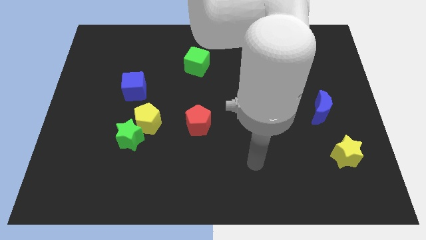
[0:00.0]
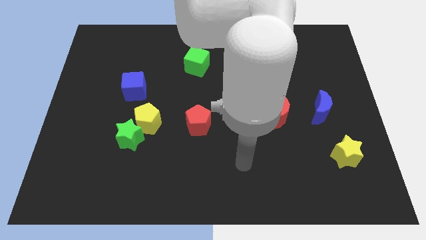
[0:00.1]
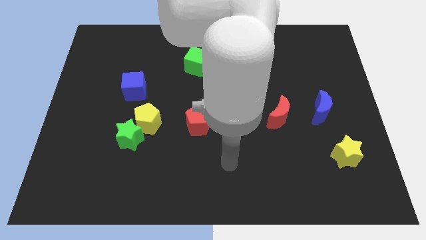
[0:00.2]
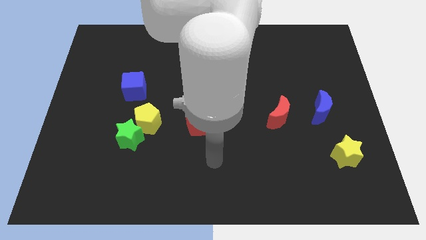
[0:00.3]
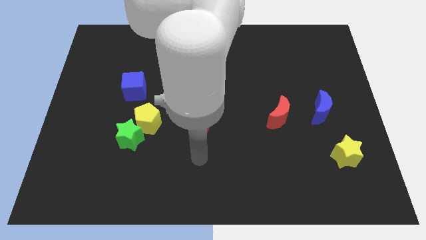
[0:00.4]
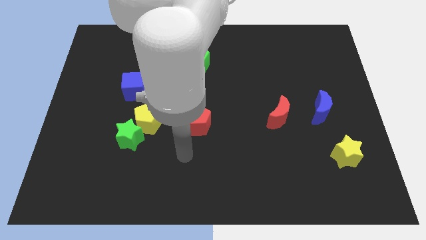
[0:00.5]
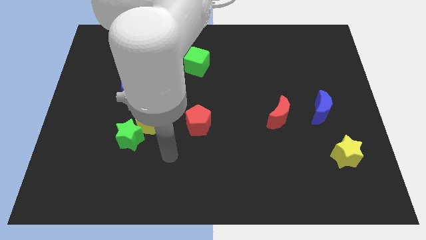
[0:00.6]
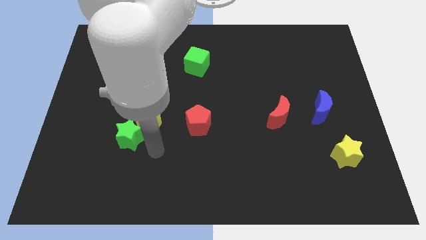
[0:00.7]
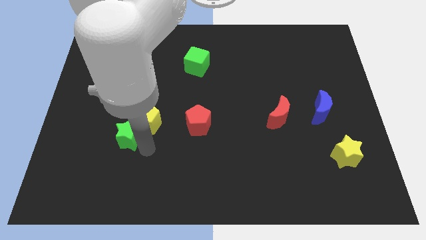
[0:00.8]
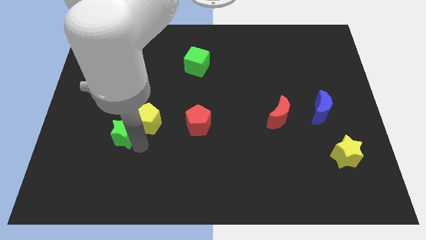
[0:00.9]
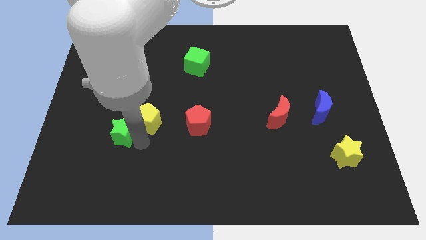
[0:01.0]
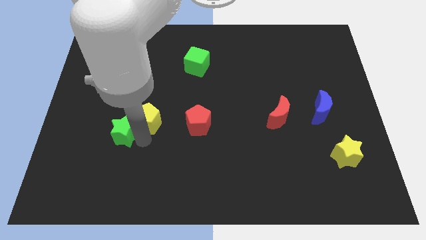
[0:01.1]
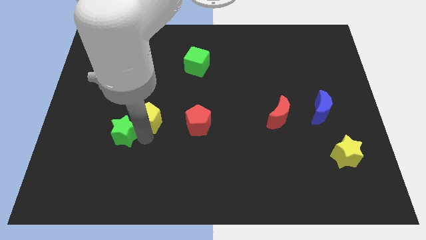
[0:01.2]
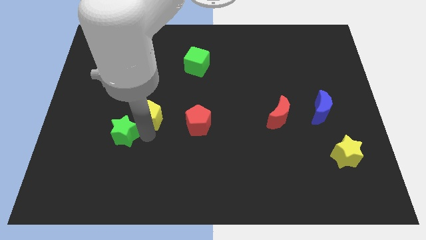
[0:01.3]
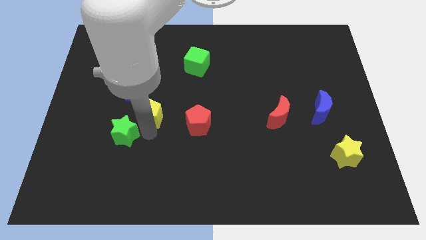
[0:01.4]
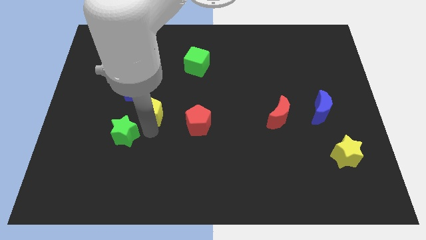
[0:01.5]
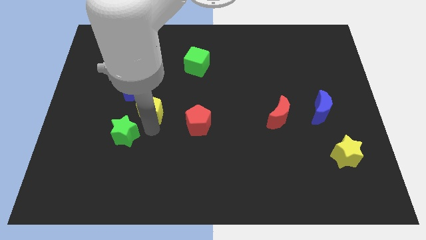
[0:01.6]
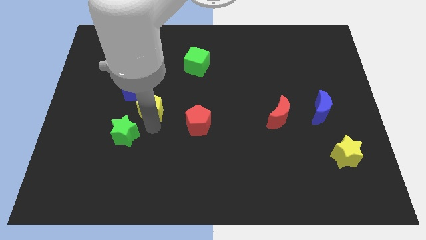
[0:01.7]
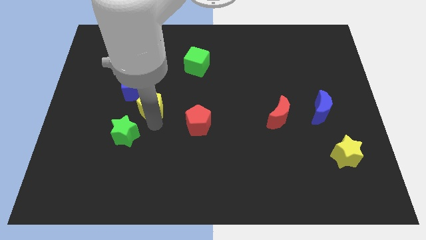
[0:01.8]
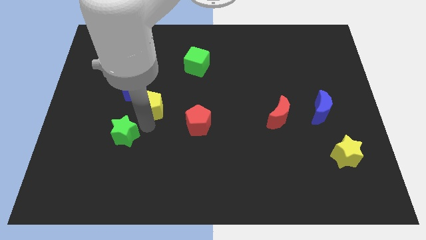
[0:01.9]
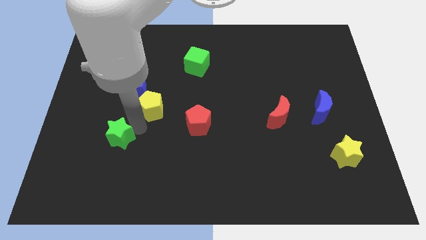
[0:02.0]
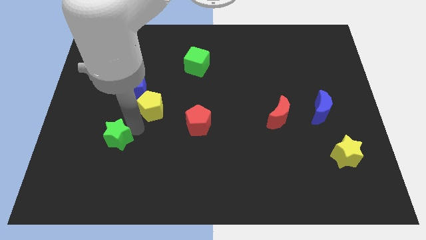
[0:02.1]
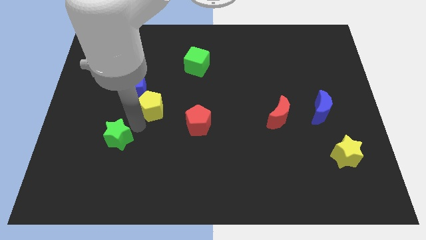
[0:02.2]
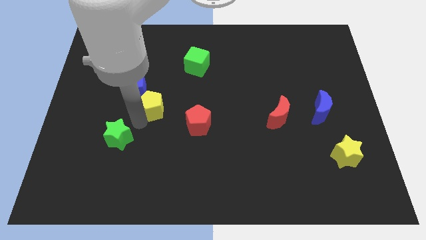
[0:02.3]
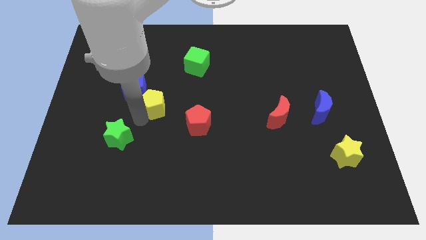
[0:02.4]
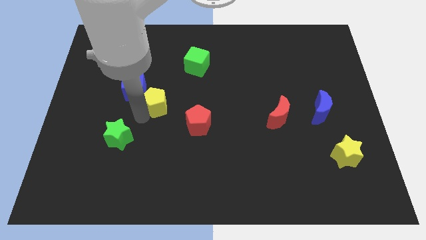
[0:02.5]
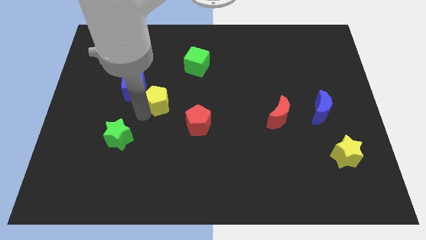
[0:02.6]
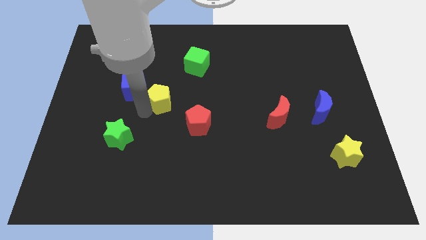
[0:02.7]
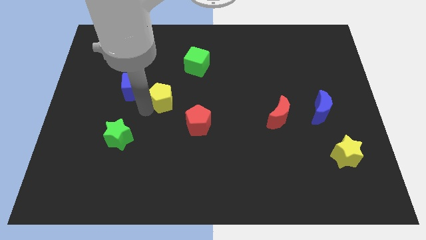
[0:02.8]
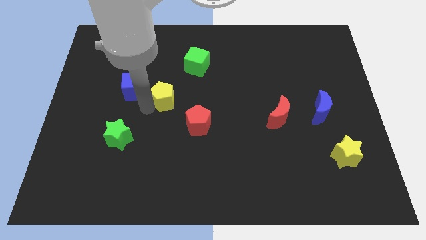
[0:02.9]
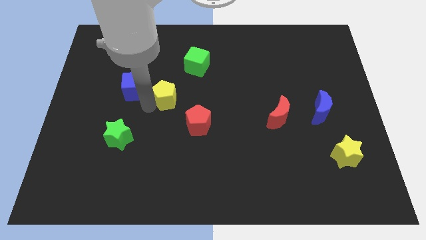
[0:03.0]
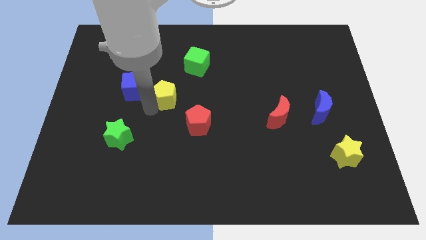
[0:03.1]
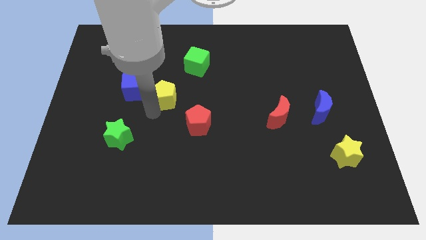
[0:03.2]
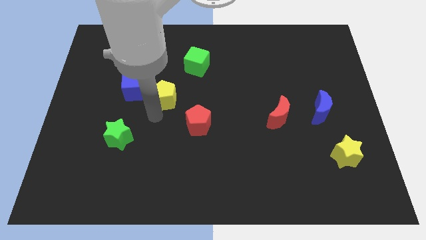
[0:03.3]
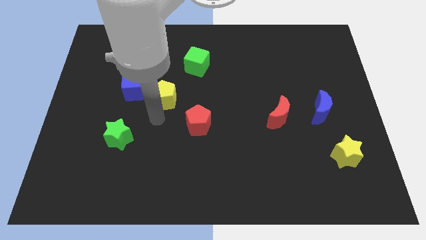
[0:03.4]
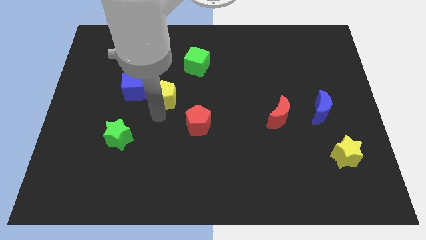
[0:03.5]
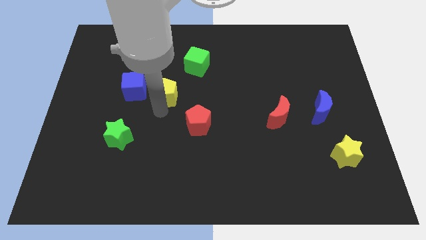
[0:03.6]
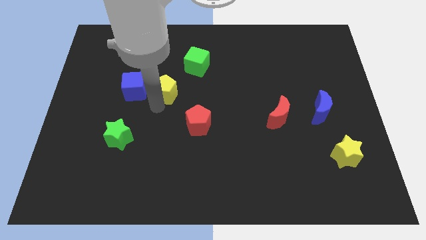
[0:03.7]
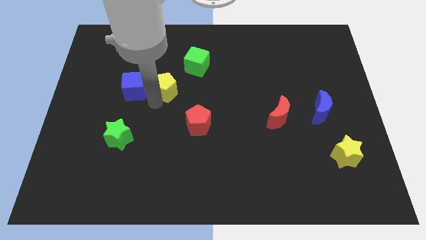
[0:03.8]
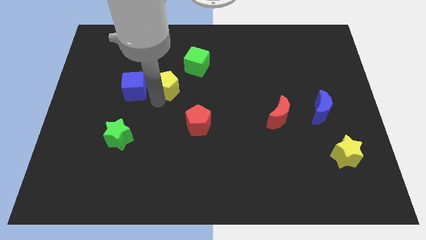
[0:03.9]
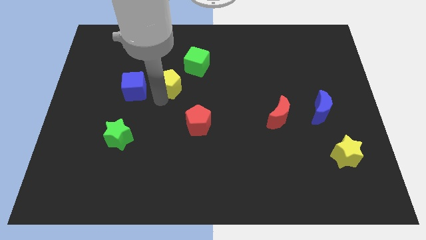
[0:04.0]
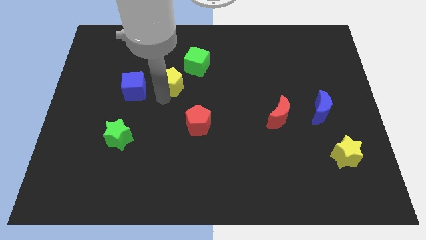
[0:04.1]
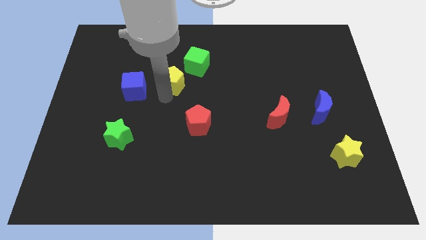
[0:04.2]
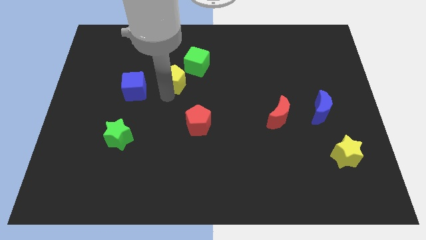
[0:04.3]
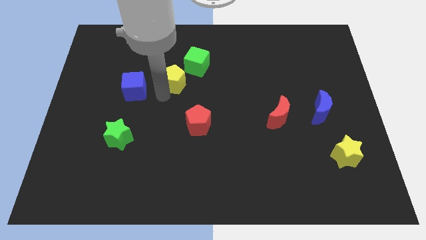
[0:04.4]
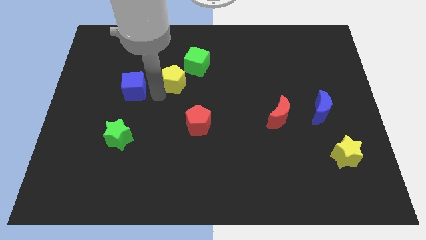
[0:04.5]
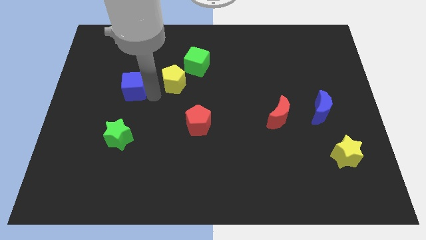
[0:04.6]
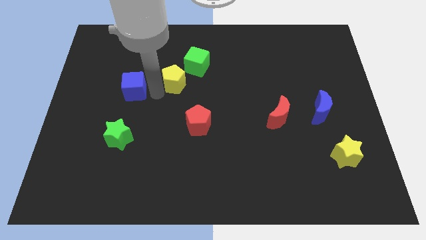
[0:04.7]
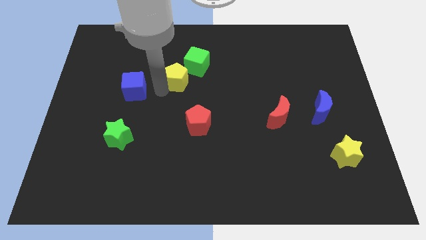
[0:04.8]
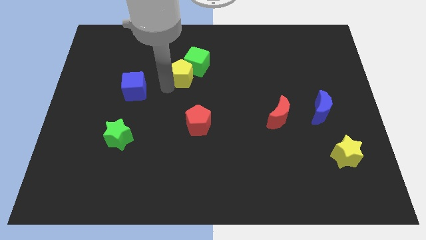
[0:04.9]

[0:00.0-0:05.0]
slide the yellow pentagon close to the green cube

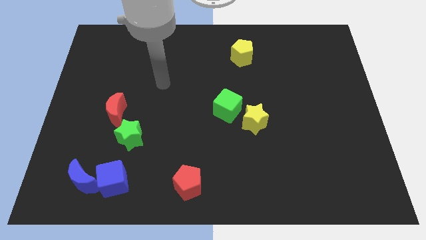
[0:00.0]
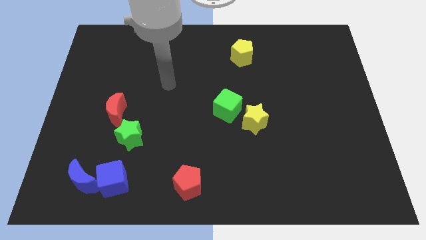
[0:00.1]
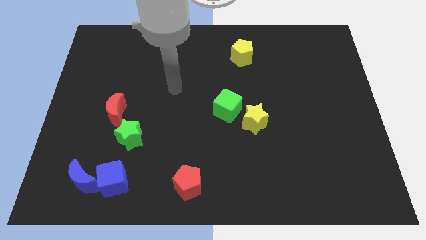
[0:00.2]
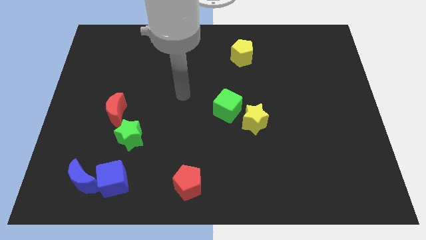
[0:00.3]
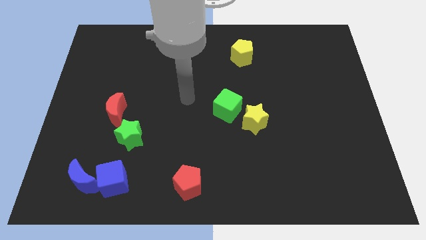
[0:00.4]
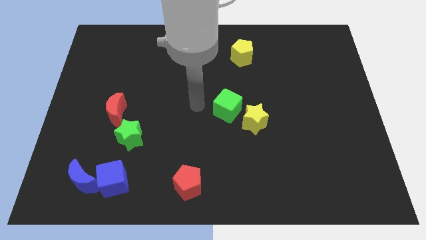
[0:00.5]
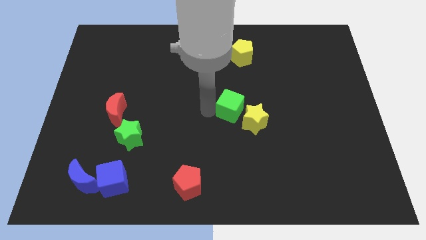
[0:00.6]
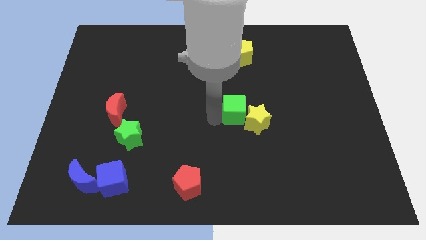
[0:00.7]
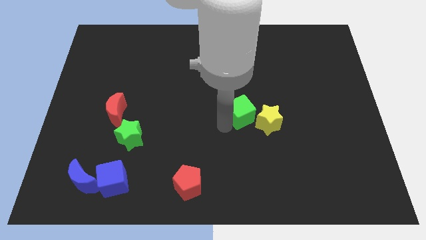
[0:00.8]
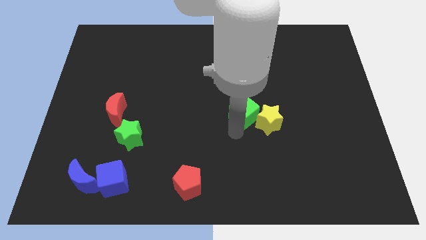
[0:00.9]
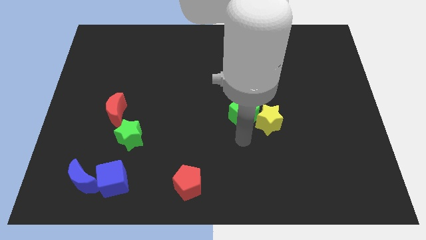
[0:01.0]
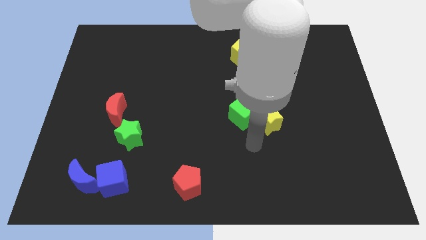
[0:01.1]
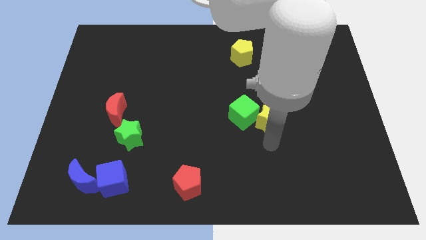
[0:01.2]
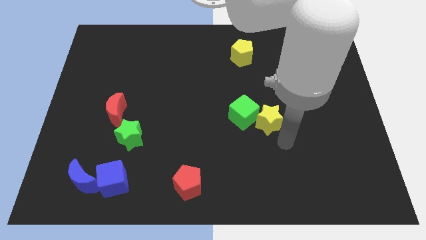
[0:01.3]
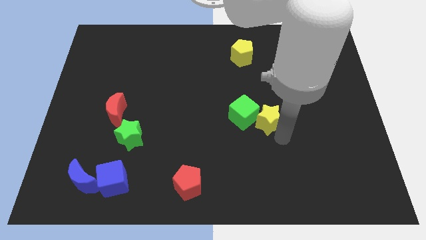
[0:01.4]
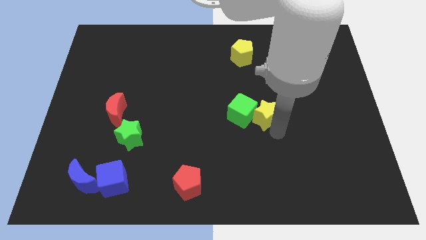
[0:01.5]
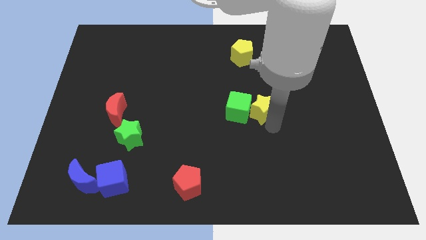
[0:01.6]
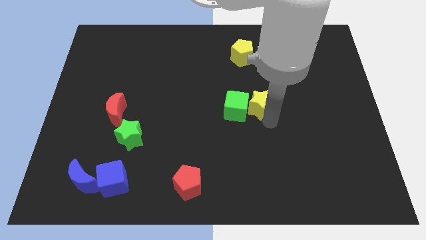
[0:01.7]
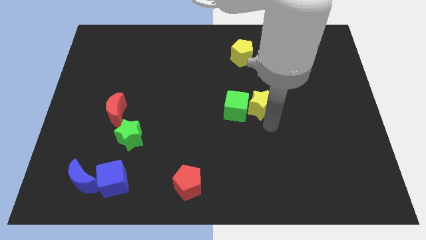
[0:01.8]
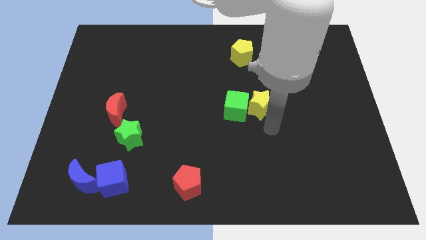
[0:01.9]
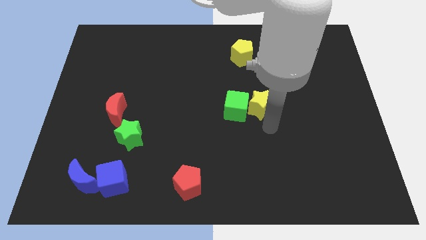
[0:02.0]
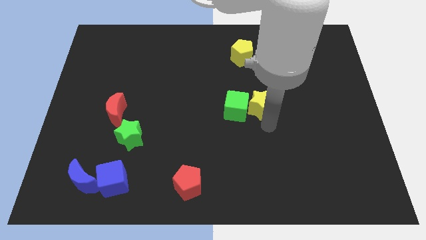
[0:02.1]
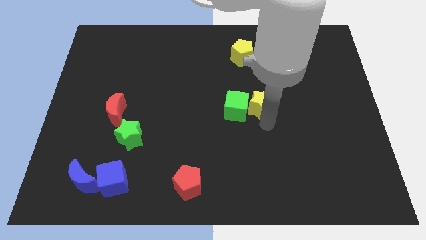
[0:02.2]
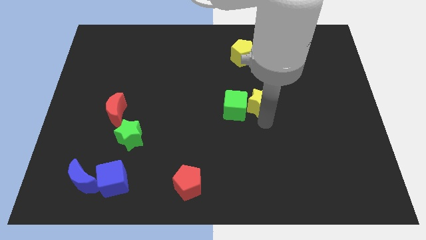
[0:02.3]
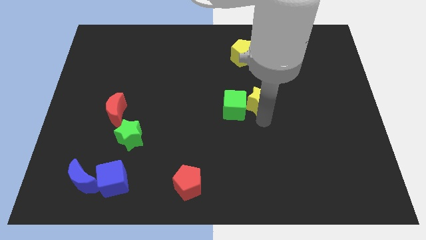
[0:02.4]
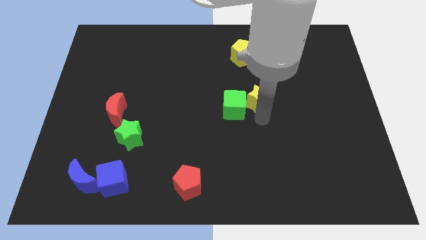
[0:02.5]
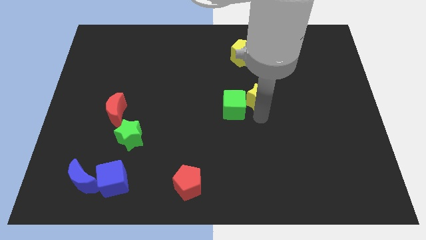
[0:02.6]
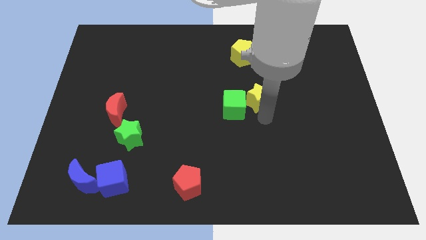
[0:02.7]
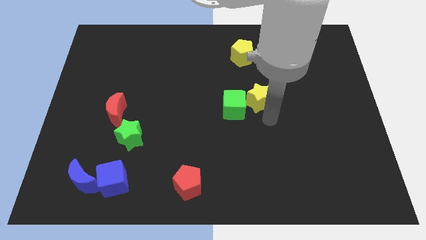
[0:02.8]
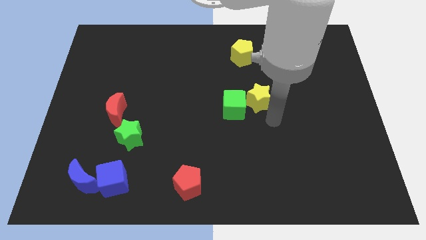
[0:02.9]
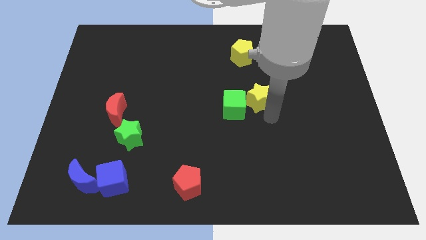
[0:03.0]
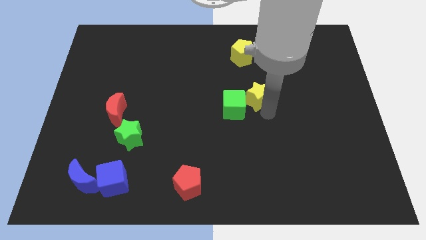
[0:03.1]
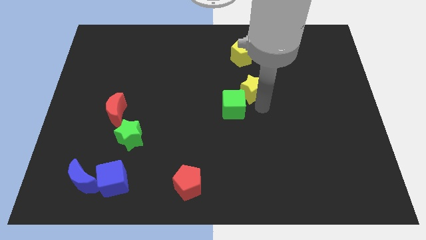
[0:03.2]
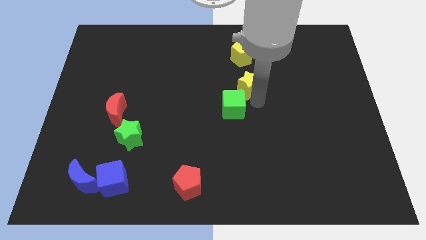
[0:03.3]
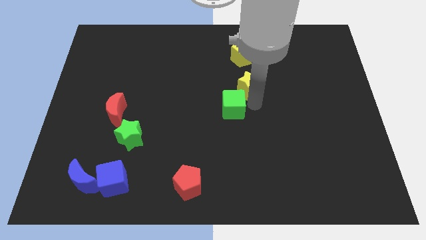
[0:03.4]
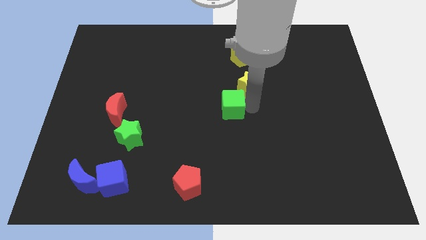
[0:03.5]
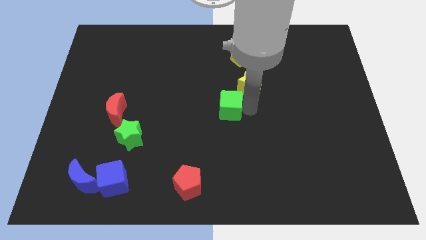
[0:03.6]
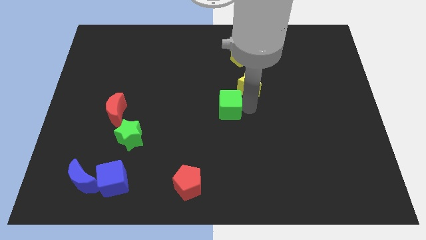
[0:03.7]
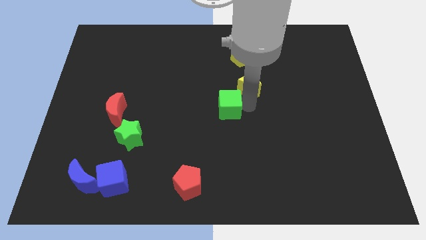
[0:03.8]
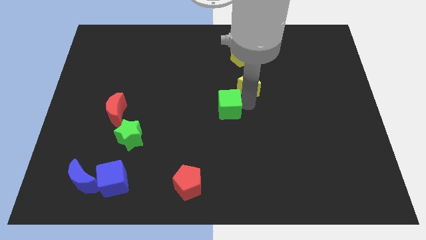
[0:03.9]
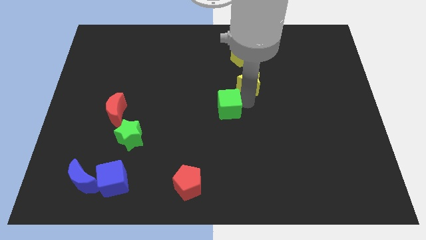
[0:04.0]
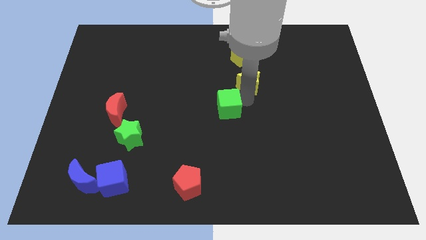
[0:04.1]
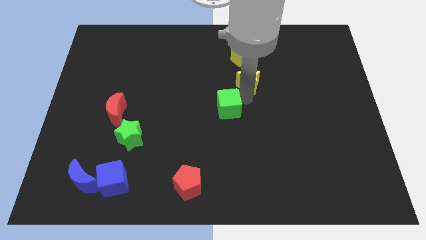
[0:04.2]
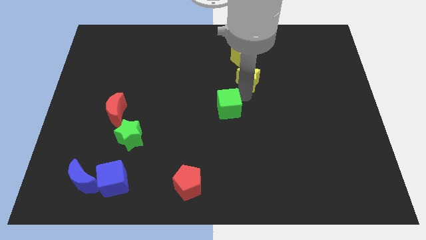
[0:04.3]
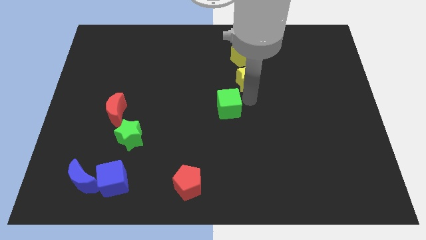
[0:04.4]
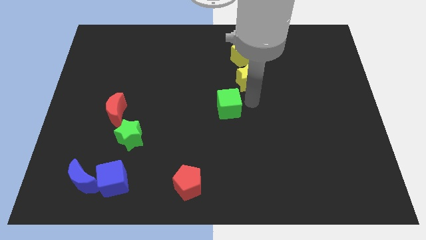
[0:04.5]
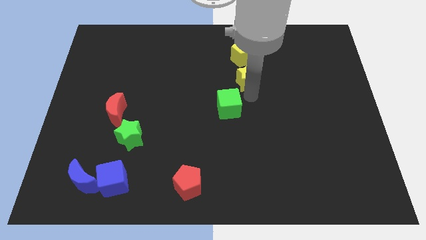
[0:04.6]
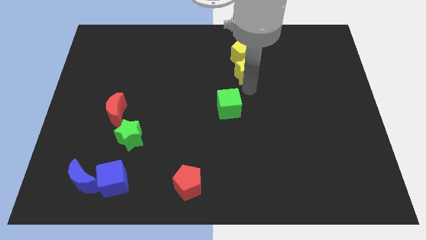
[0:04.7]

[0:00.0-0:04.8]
push the yellow star next to the yellow pentagon
